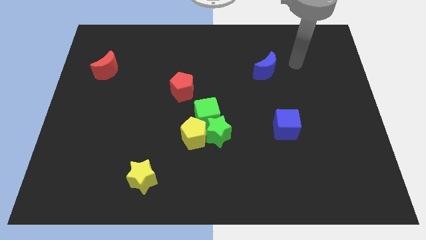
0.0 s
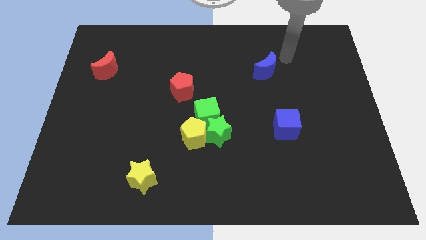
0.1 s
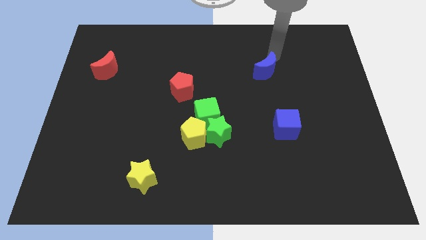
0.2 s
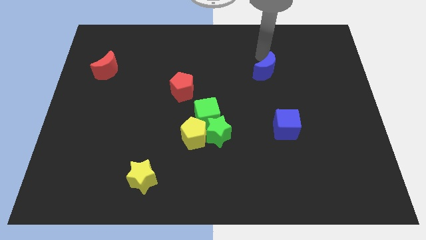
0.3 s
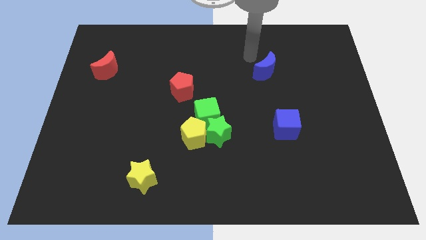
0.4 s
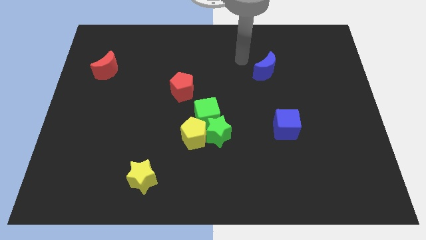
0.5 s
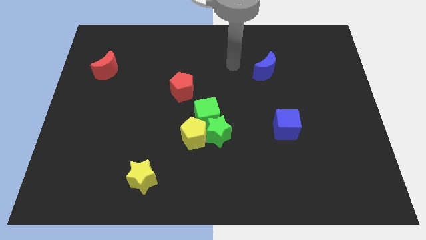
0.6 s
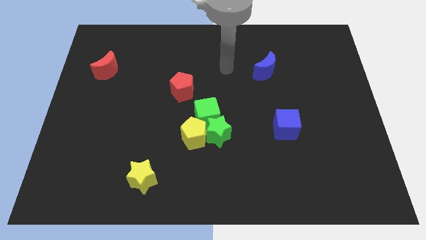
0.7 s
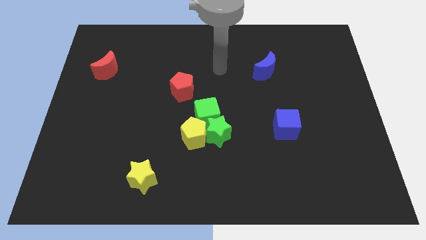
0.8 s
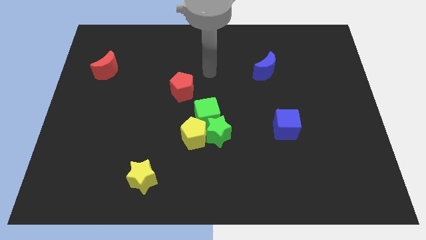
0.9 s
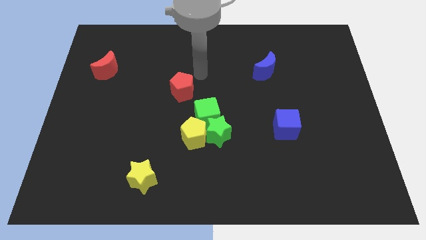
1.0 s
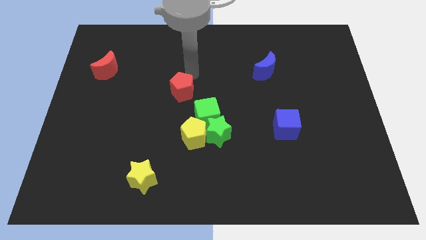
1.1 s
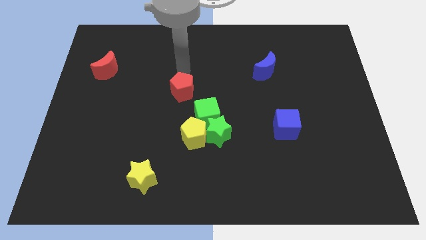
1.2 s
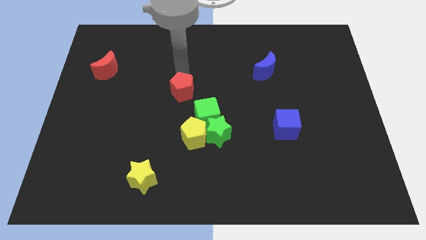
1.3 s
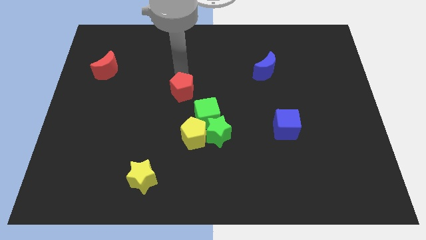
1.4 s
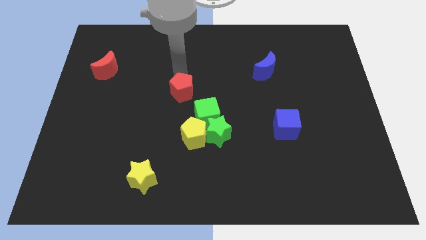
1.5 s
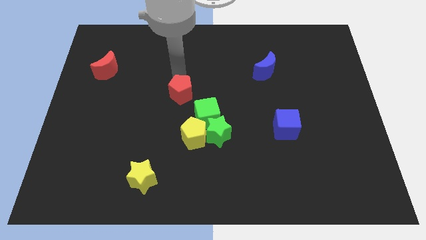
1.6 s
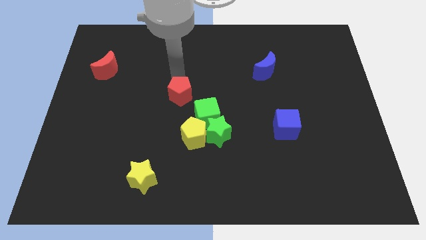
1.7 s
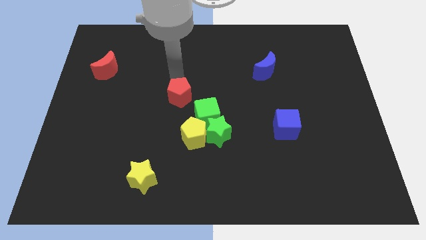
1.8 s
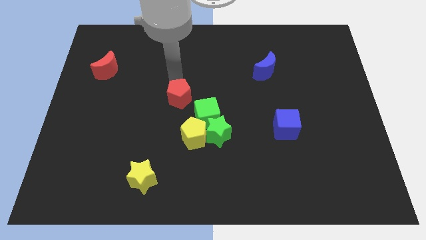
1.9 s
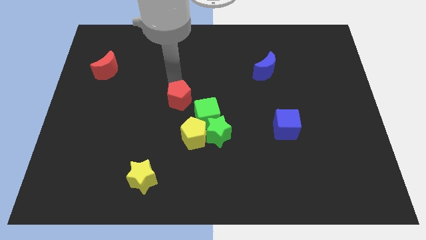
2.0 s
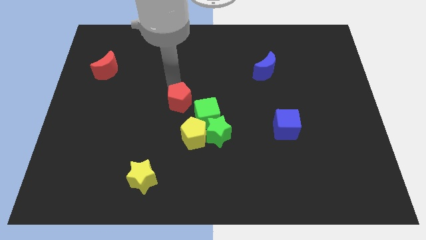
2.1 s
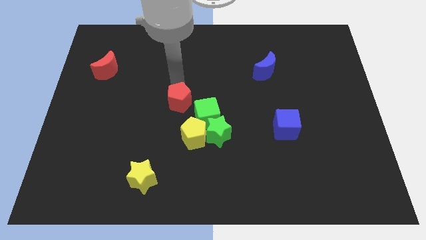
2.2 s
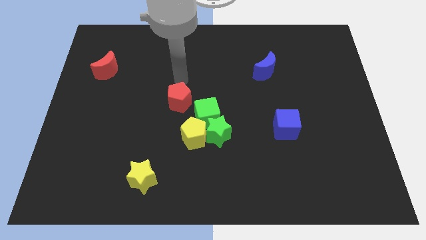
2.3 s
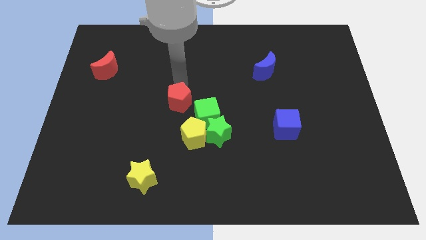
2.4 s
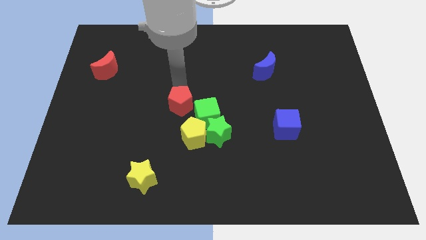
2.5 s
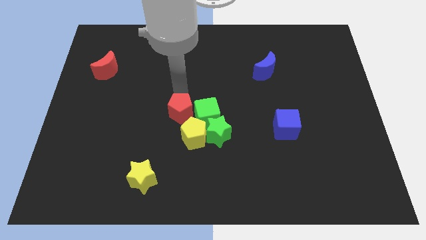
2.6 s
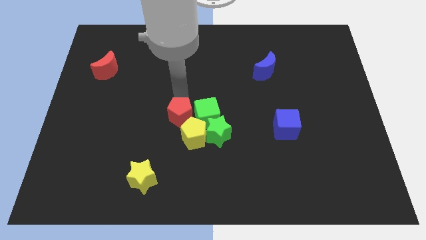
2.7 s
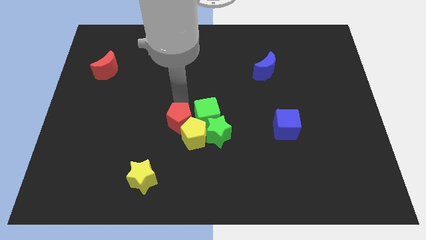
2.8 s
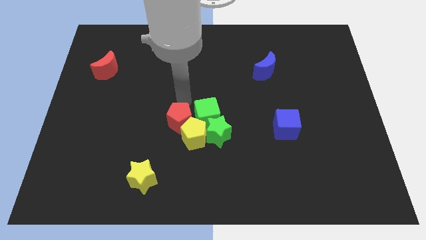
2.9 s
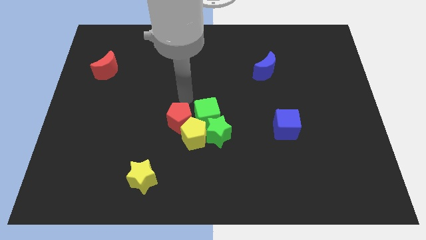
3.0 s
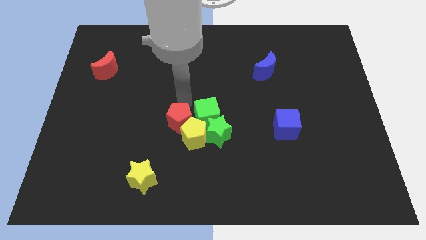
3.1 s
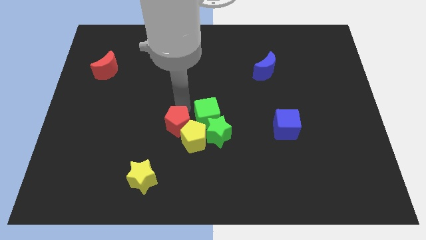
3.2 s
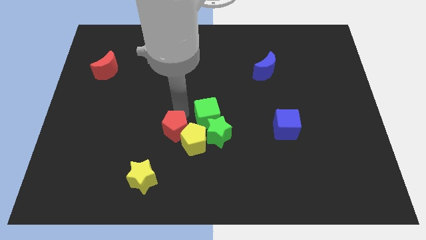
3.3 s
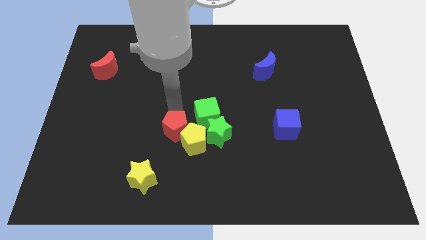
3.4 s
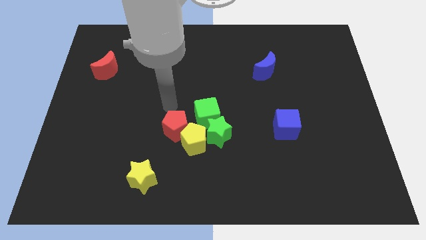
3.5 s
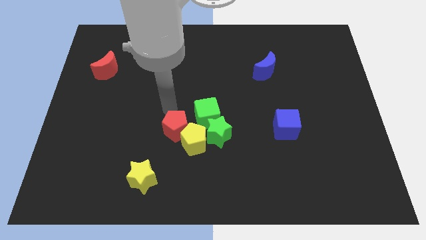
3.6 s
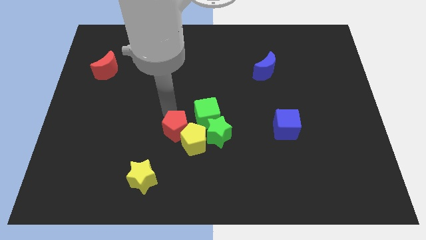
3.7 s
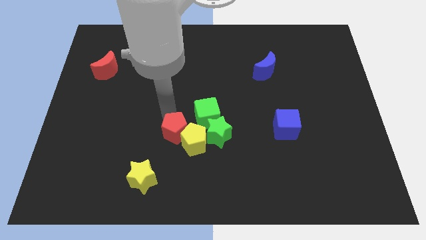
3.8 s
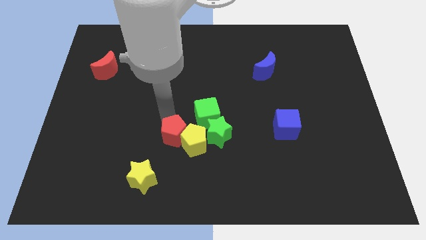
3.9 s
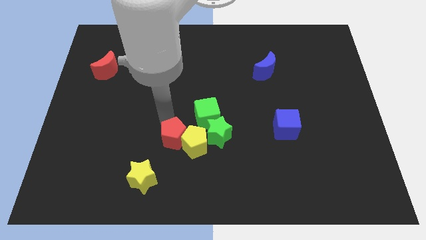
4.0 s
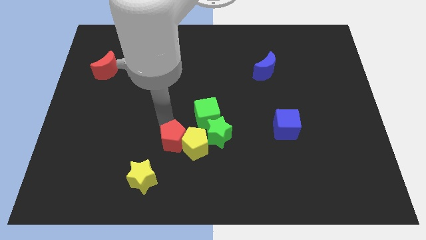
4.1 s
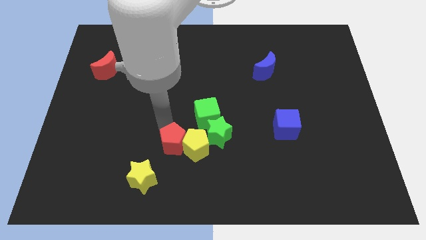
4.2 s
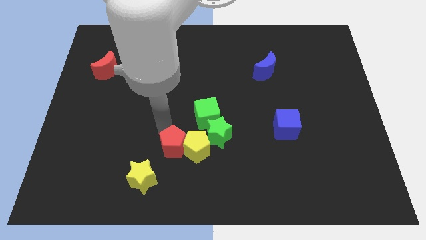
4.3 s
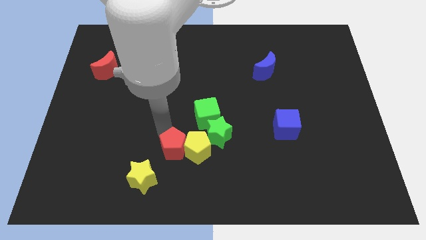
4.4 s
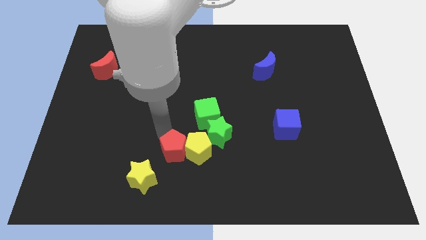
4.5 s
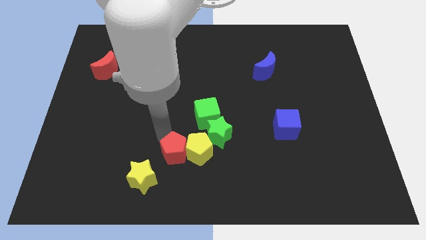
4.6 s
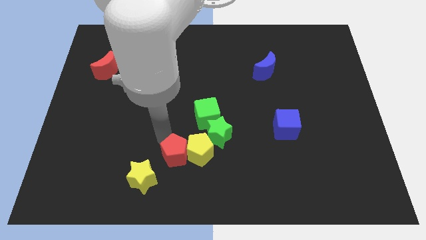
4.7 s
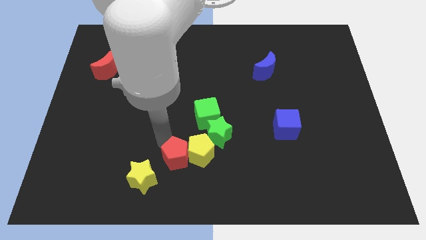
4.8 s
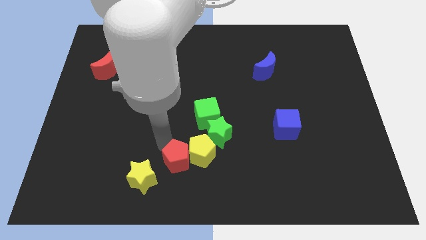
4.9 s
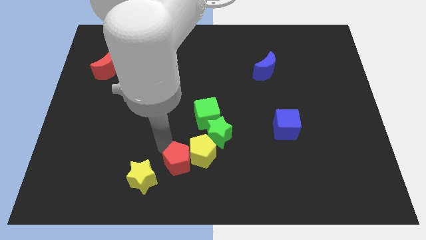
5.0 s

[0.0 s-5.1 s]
put the red pentagon to the bottom side

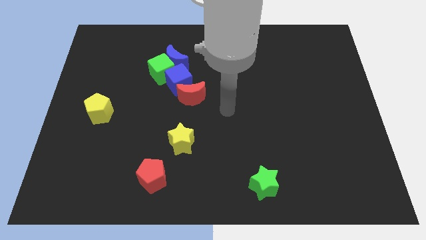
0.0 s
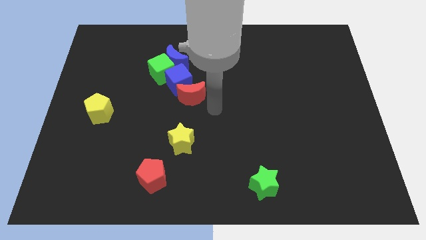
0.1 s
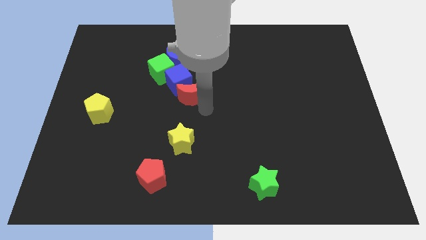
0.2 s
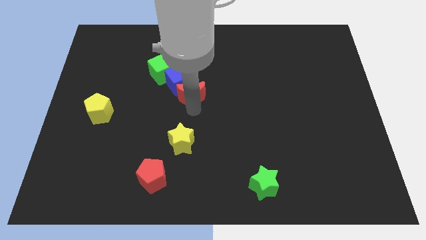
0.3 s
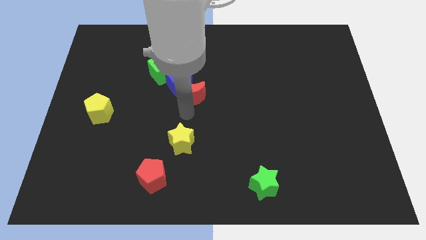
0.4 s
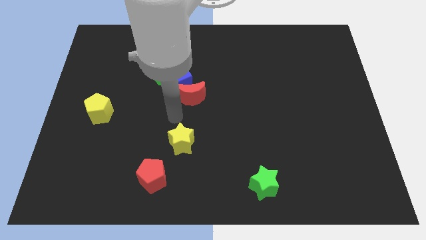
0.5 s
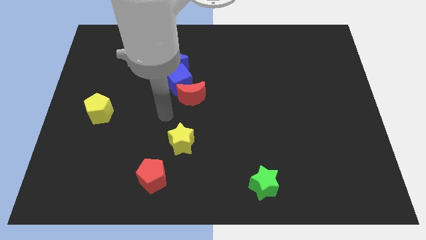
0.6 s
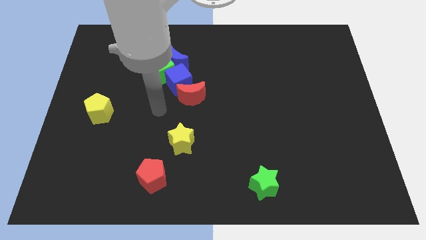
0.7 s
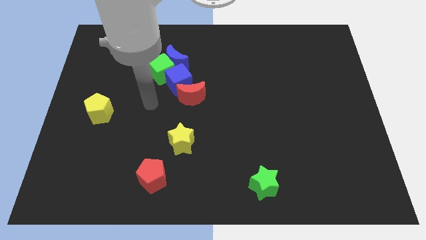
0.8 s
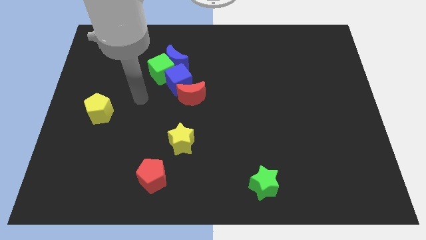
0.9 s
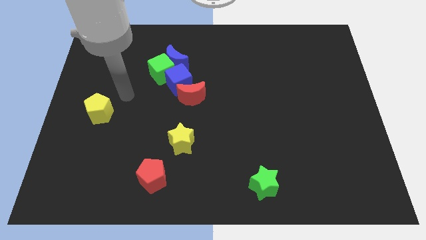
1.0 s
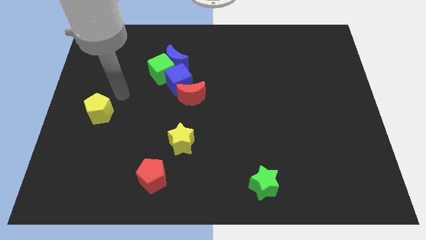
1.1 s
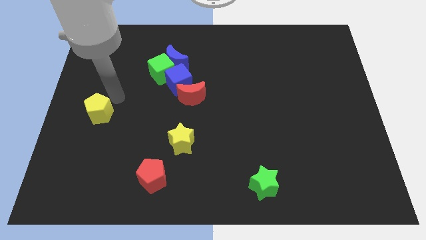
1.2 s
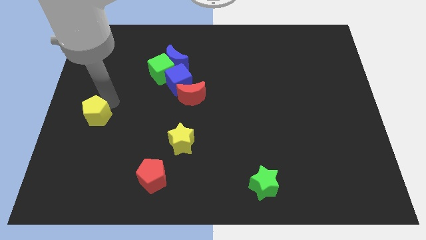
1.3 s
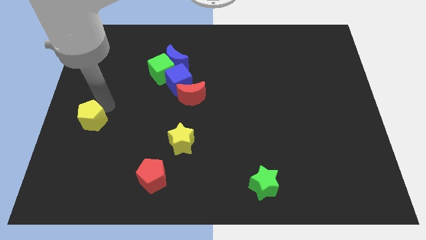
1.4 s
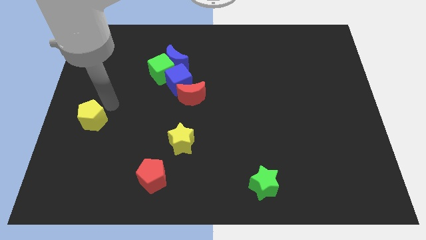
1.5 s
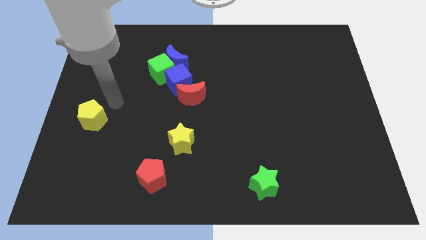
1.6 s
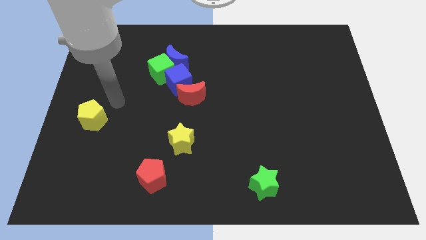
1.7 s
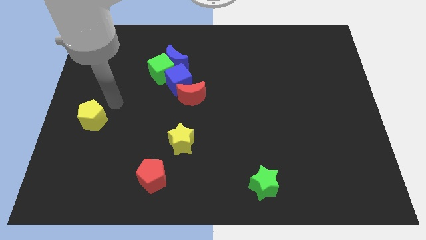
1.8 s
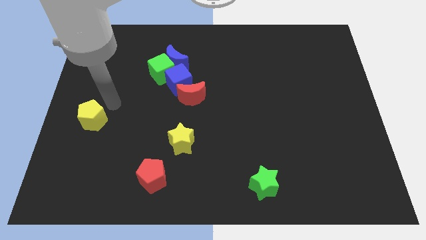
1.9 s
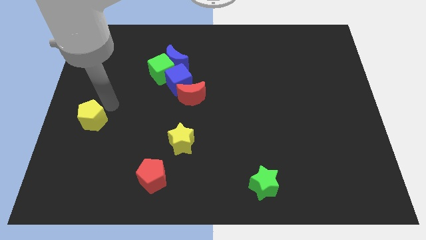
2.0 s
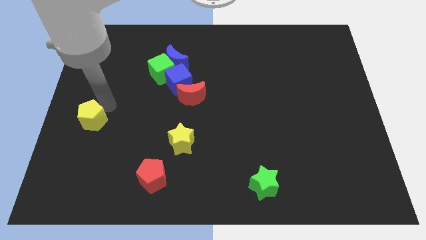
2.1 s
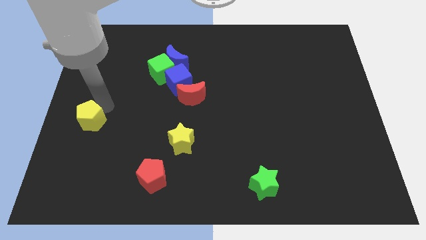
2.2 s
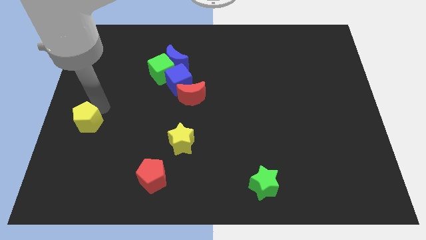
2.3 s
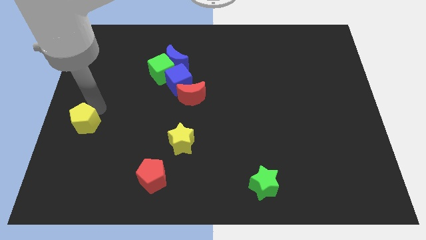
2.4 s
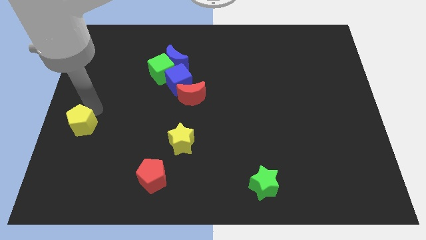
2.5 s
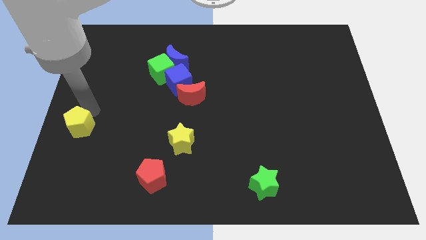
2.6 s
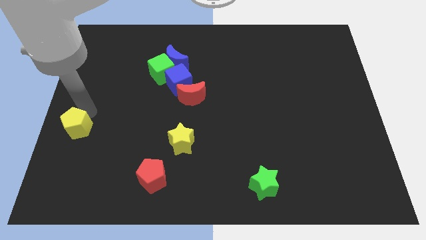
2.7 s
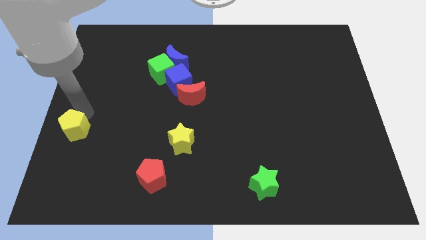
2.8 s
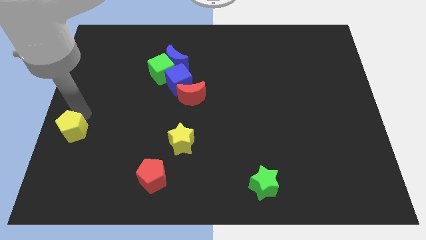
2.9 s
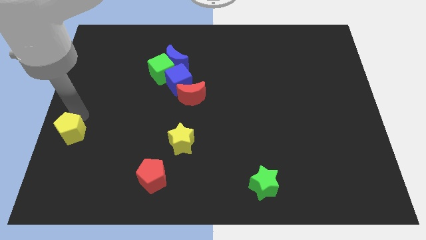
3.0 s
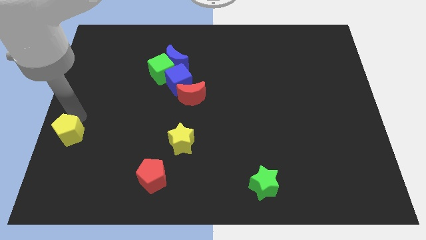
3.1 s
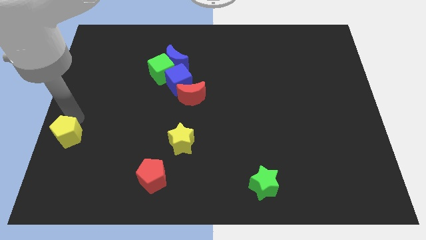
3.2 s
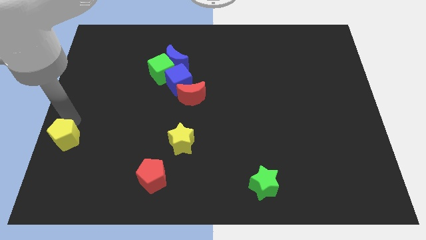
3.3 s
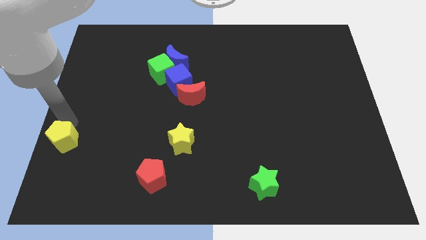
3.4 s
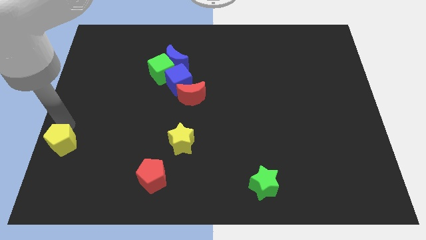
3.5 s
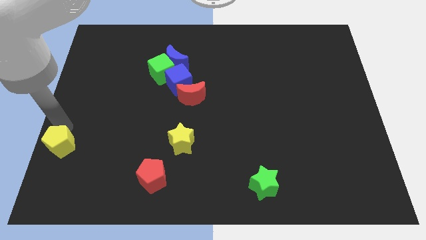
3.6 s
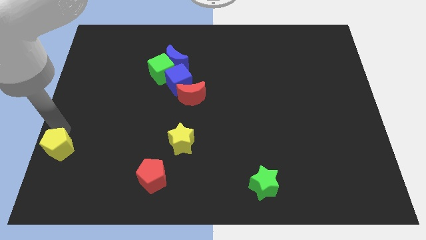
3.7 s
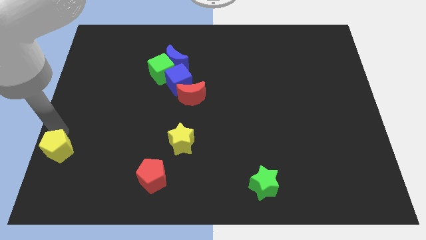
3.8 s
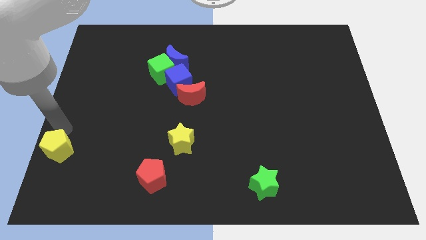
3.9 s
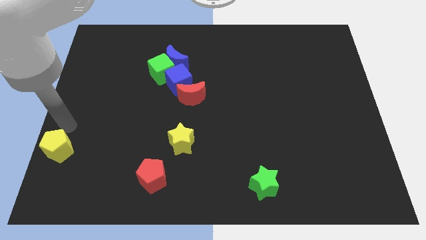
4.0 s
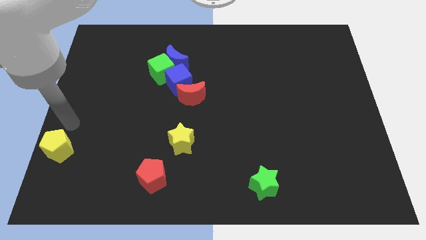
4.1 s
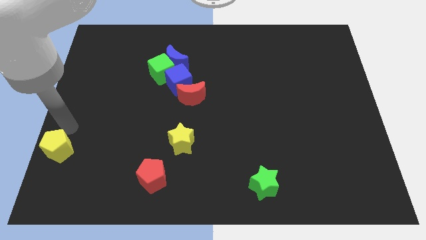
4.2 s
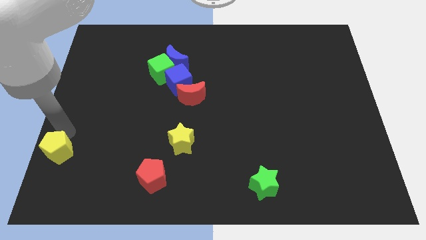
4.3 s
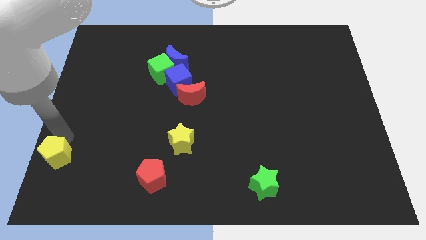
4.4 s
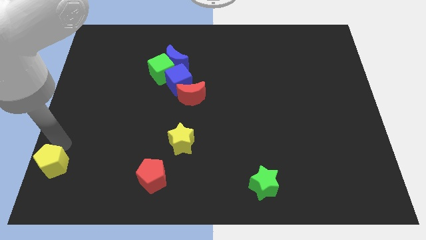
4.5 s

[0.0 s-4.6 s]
put the yellow pentagon to the bottom left corner
